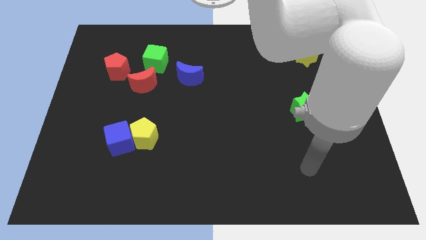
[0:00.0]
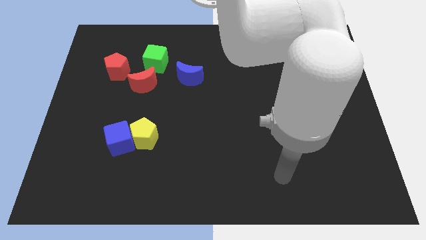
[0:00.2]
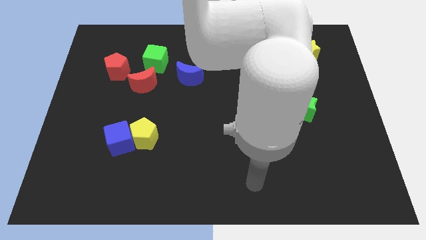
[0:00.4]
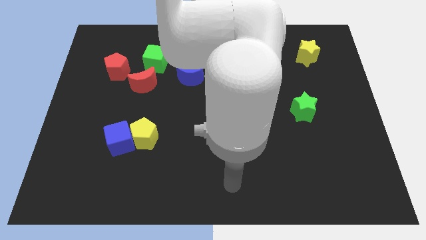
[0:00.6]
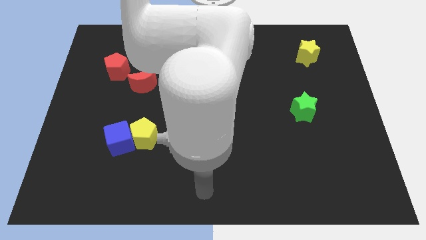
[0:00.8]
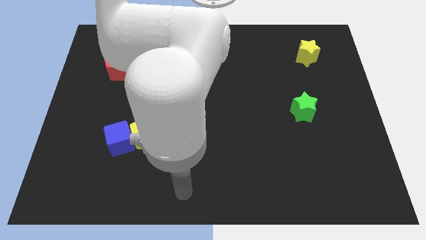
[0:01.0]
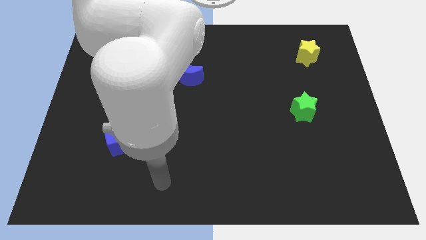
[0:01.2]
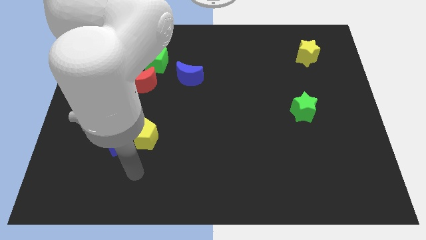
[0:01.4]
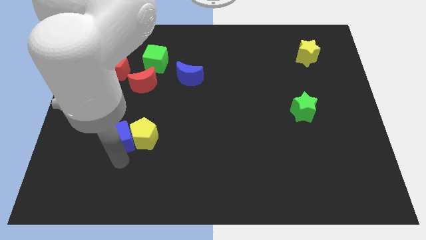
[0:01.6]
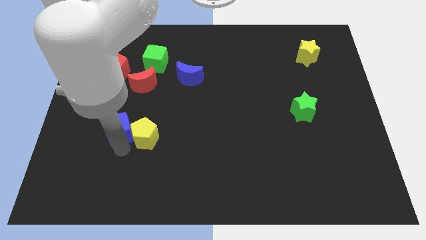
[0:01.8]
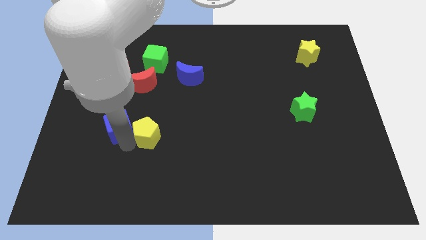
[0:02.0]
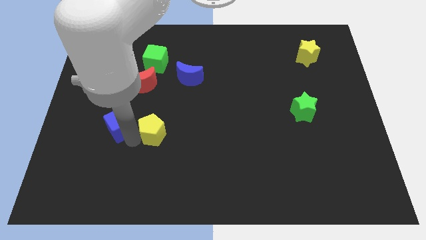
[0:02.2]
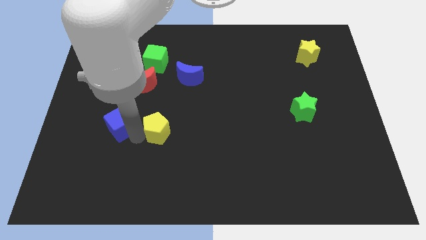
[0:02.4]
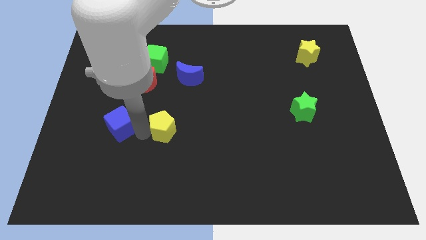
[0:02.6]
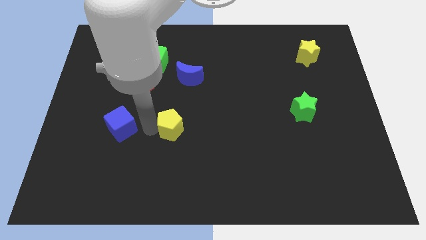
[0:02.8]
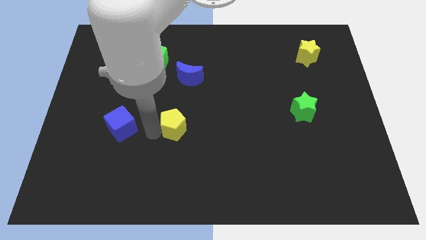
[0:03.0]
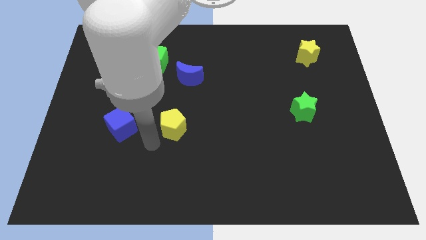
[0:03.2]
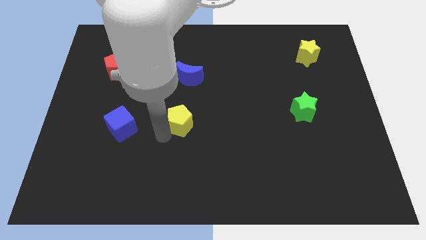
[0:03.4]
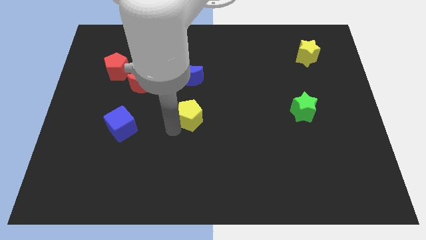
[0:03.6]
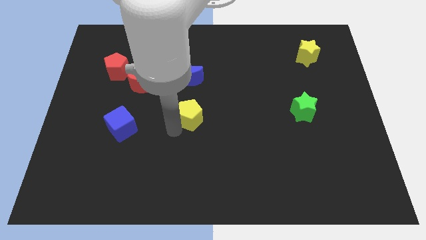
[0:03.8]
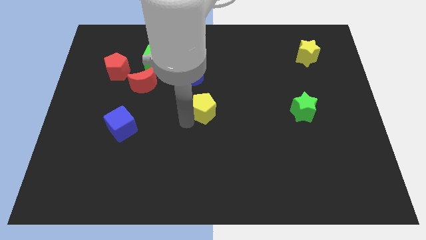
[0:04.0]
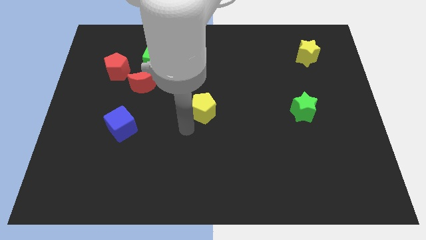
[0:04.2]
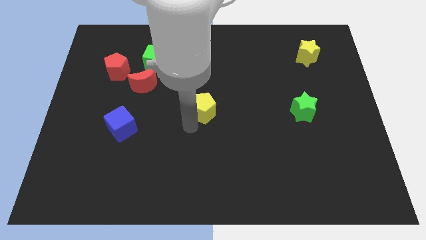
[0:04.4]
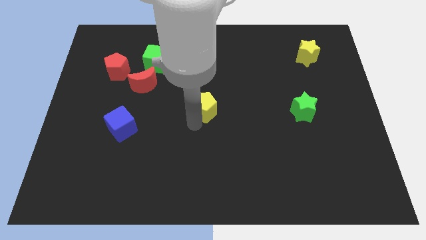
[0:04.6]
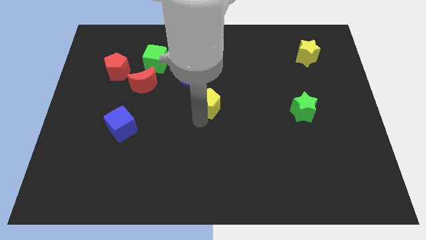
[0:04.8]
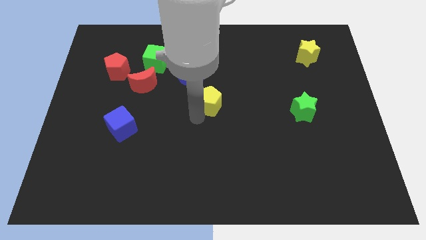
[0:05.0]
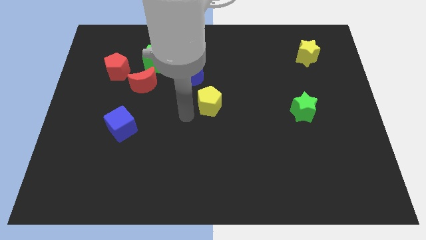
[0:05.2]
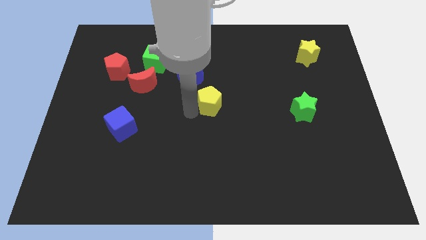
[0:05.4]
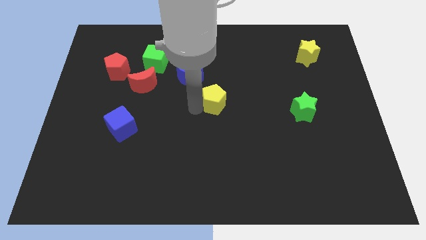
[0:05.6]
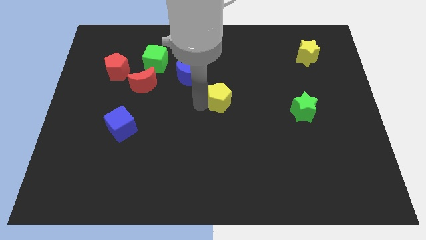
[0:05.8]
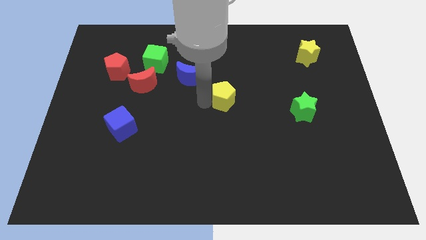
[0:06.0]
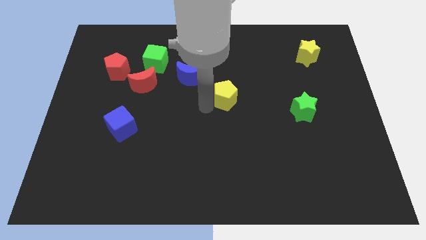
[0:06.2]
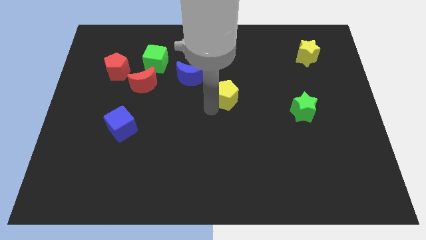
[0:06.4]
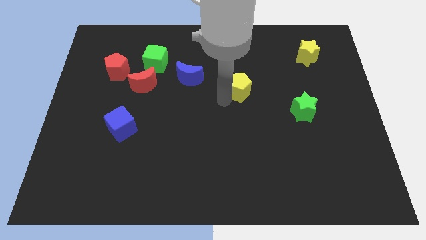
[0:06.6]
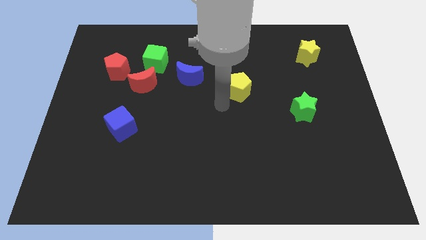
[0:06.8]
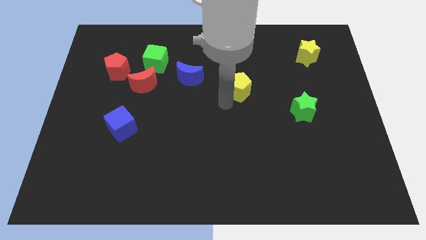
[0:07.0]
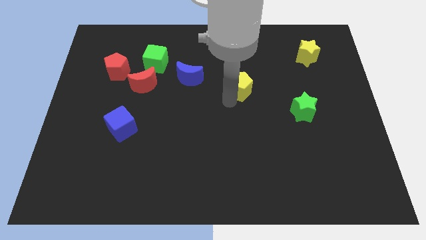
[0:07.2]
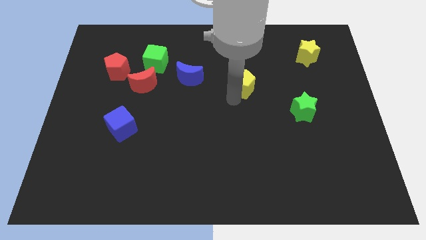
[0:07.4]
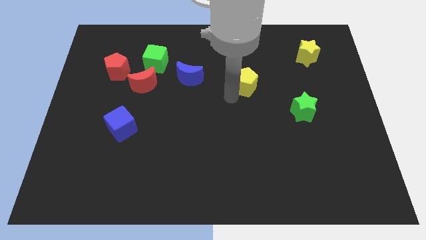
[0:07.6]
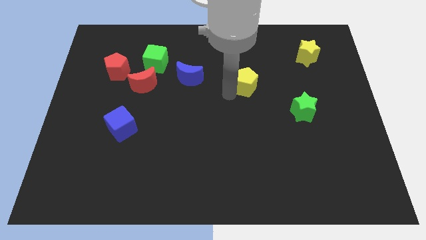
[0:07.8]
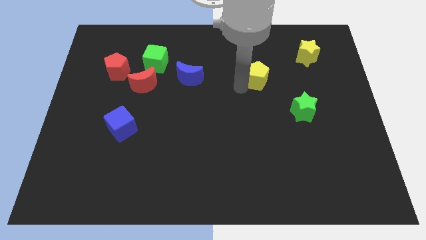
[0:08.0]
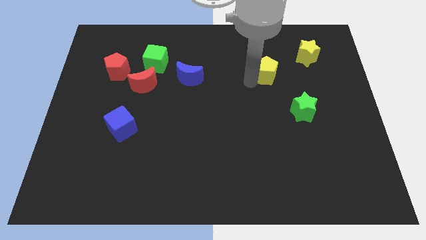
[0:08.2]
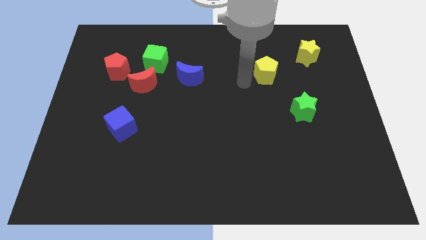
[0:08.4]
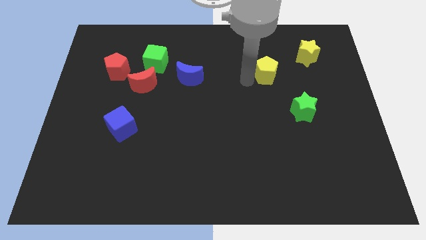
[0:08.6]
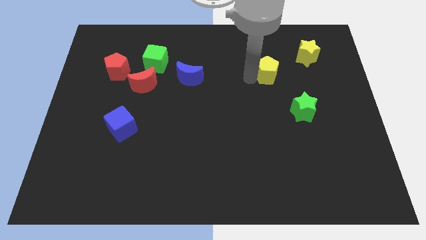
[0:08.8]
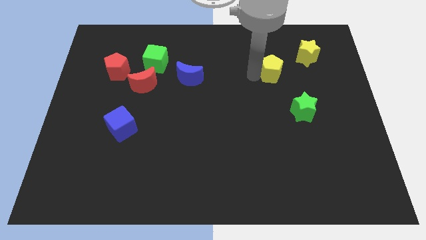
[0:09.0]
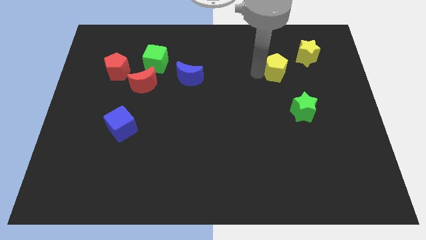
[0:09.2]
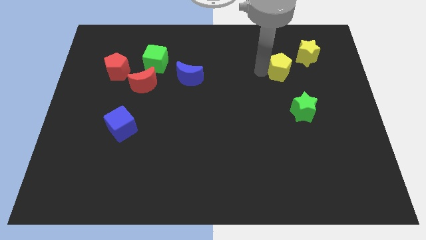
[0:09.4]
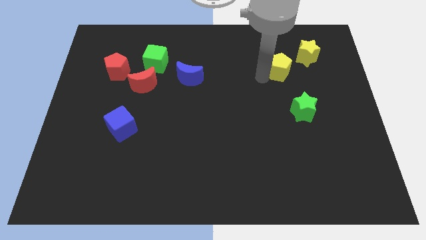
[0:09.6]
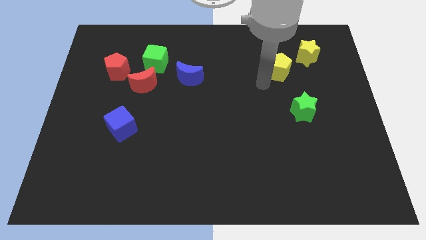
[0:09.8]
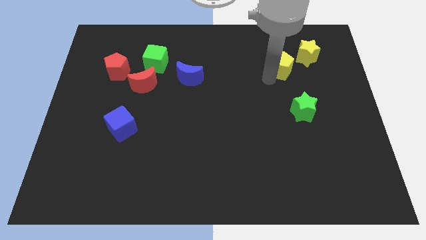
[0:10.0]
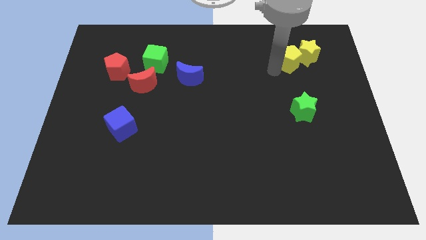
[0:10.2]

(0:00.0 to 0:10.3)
move the yellow pentagon towards the yellow star

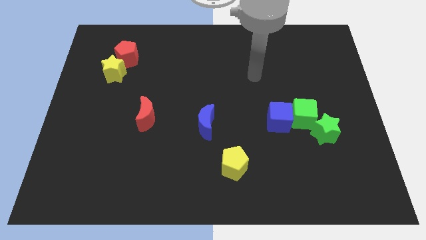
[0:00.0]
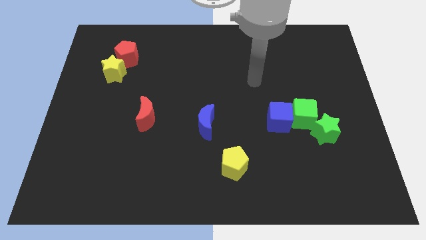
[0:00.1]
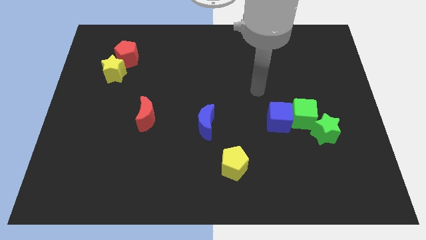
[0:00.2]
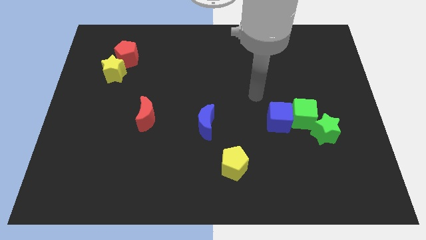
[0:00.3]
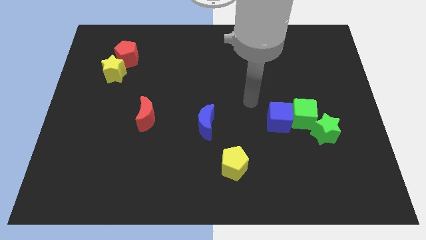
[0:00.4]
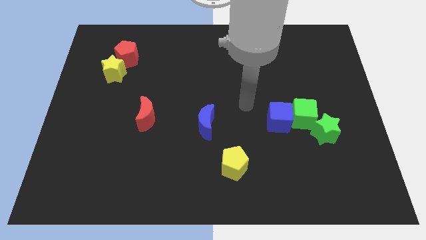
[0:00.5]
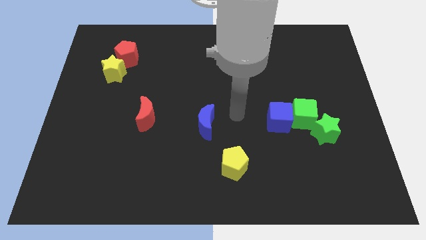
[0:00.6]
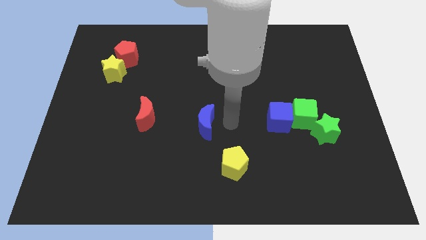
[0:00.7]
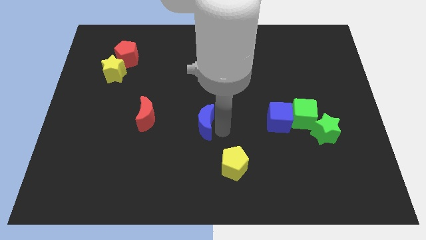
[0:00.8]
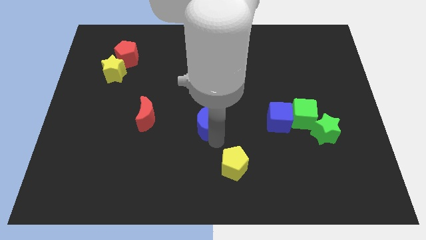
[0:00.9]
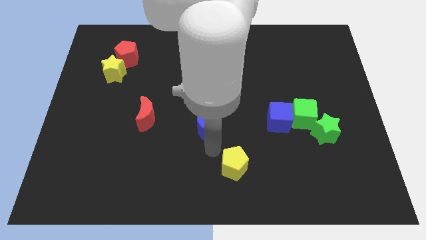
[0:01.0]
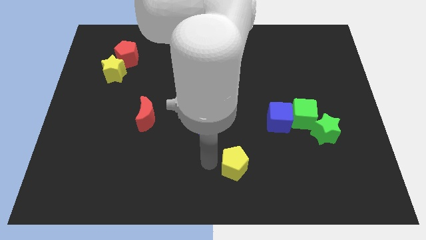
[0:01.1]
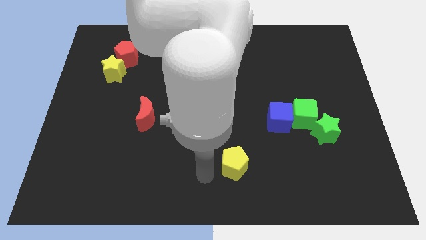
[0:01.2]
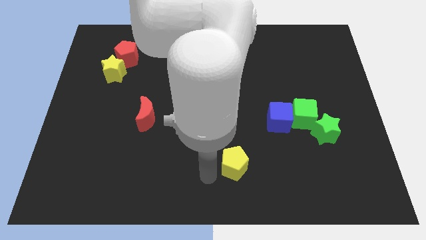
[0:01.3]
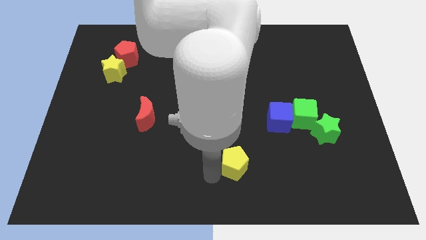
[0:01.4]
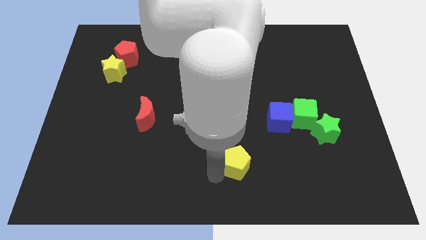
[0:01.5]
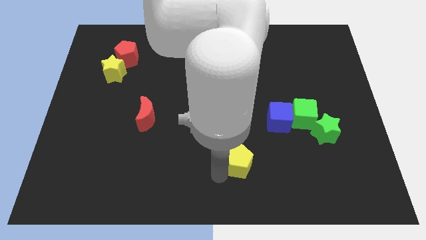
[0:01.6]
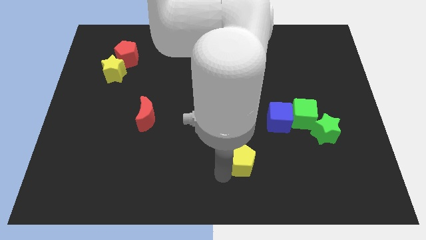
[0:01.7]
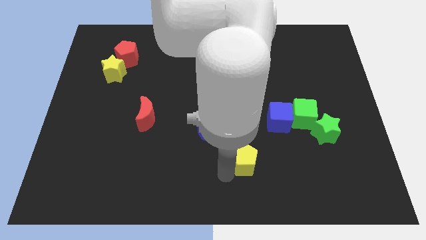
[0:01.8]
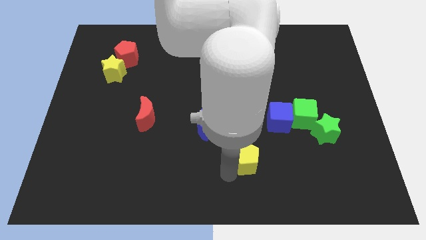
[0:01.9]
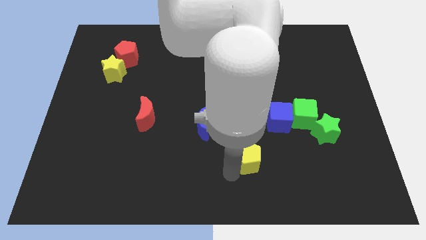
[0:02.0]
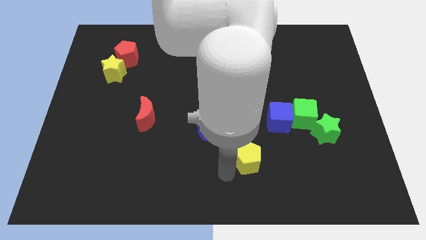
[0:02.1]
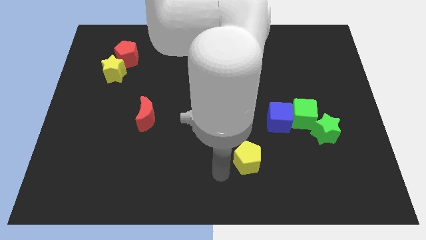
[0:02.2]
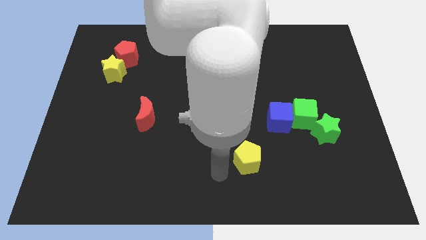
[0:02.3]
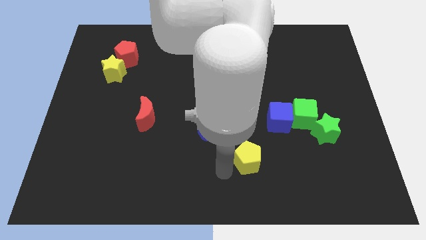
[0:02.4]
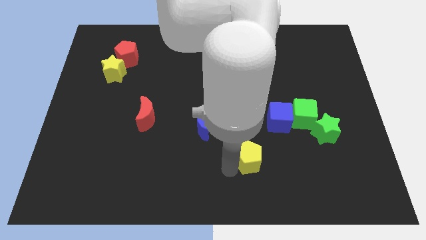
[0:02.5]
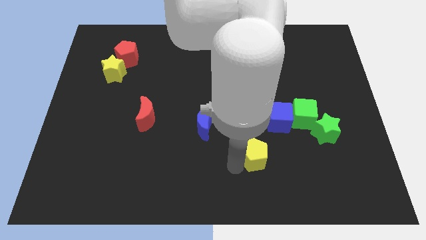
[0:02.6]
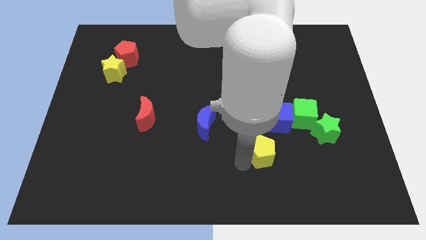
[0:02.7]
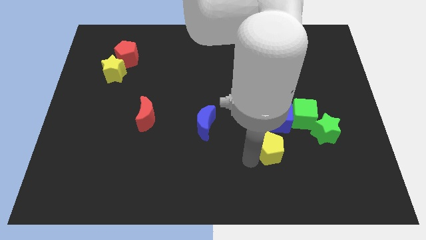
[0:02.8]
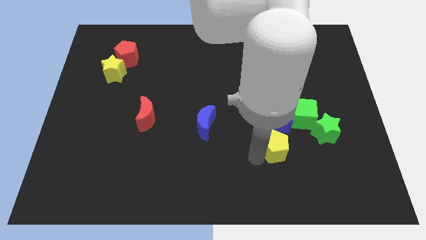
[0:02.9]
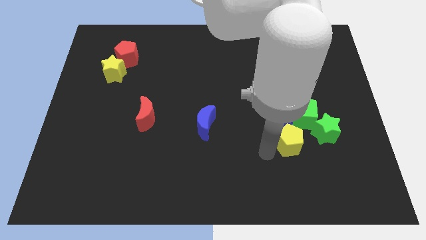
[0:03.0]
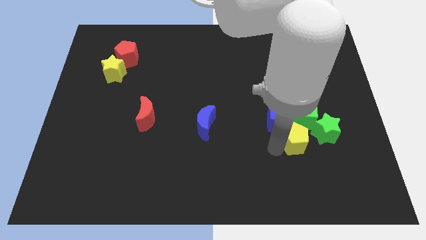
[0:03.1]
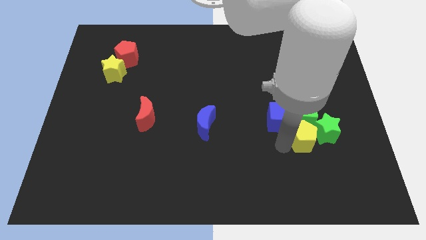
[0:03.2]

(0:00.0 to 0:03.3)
move the yellow pentagon towards the green star
